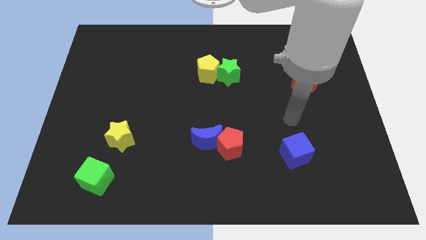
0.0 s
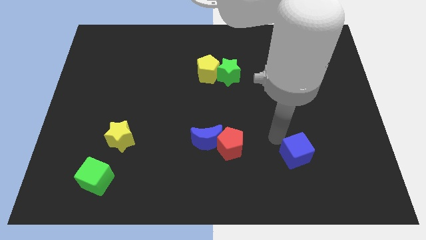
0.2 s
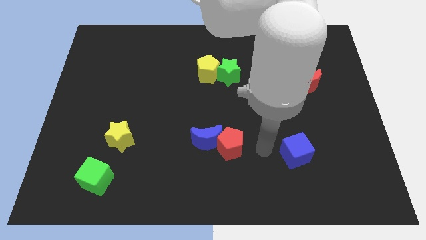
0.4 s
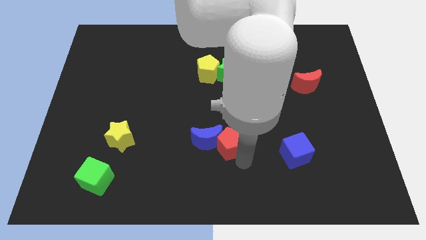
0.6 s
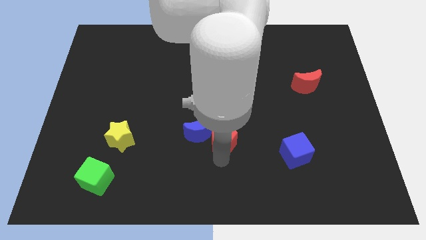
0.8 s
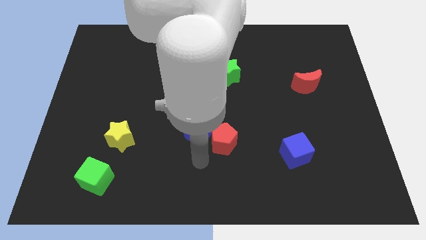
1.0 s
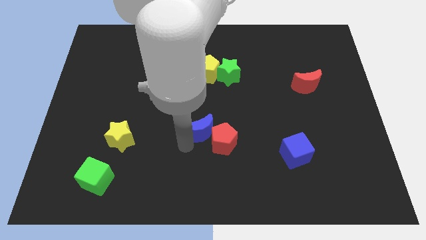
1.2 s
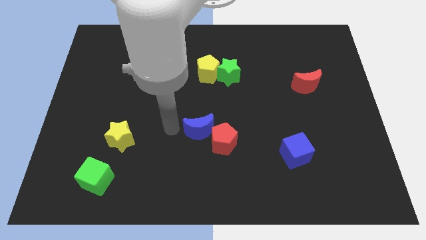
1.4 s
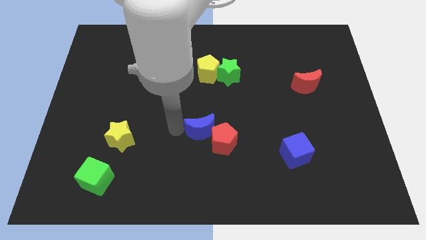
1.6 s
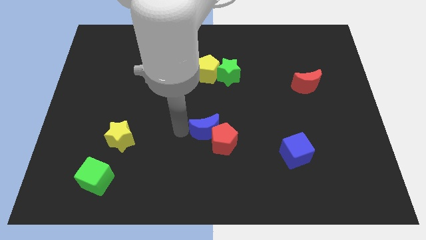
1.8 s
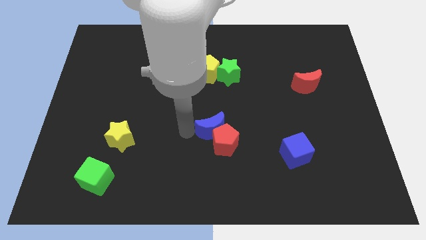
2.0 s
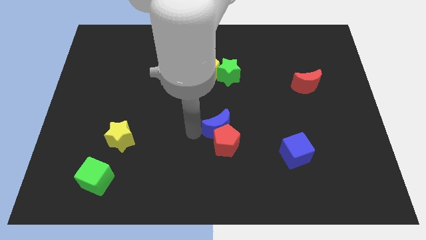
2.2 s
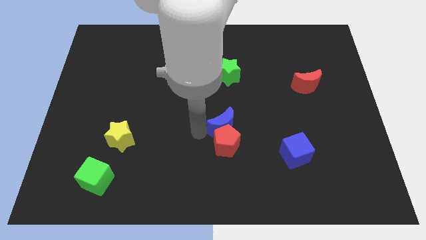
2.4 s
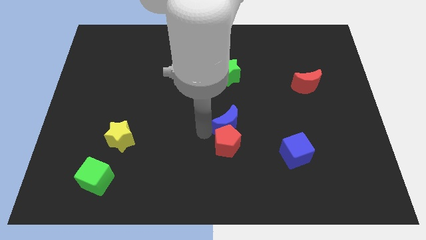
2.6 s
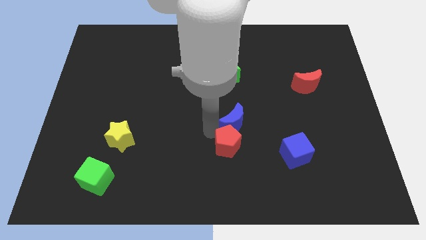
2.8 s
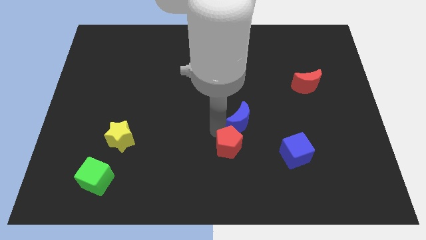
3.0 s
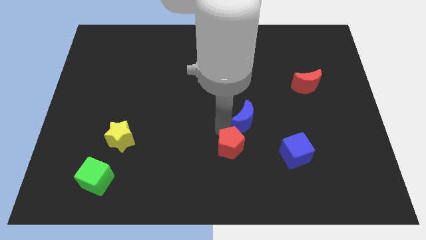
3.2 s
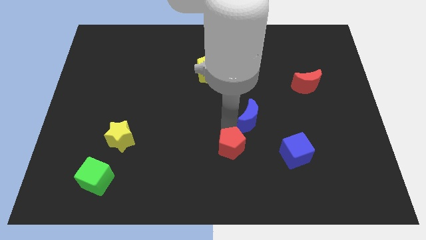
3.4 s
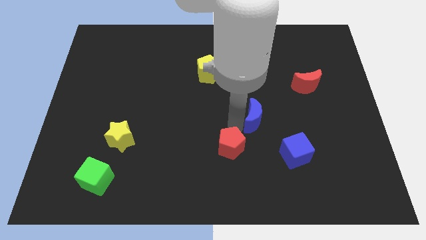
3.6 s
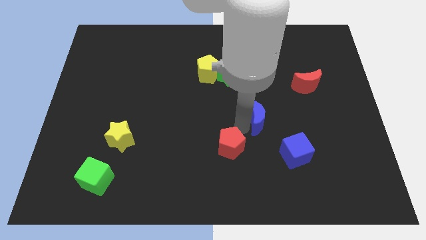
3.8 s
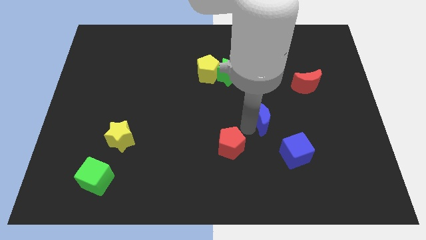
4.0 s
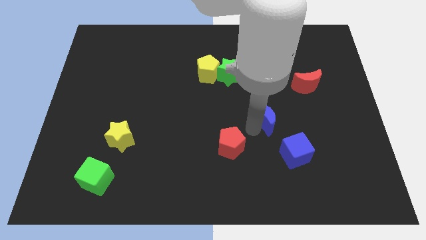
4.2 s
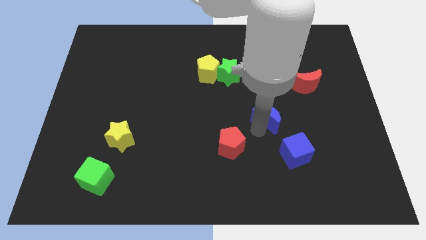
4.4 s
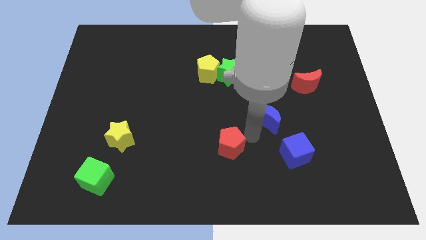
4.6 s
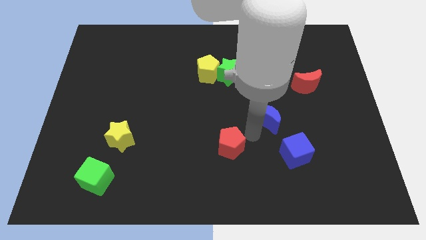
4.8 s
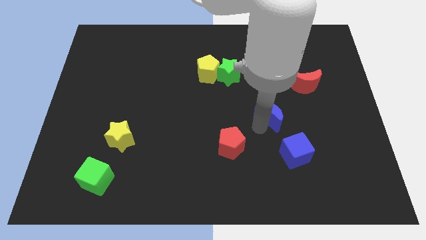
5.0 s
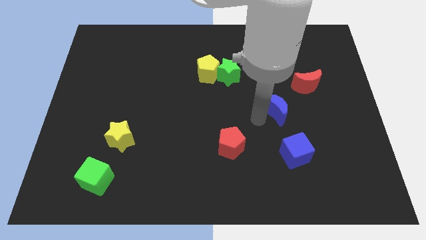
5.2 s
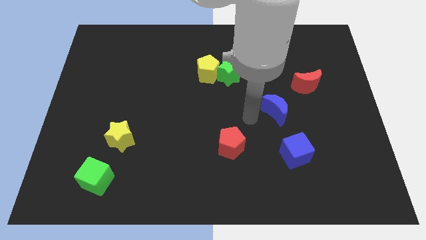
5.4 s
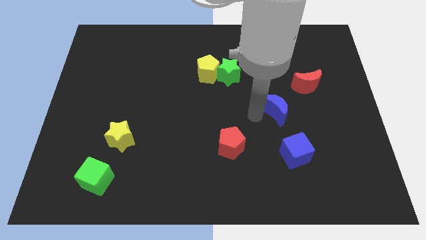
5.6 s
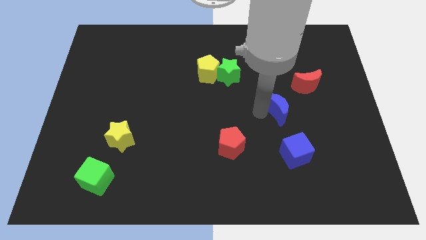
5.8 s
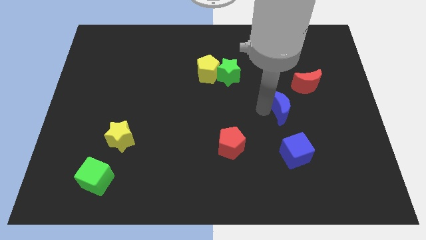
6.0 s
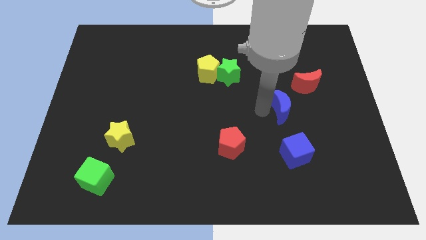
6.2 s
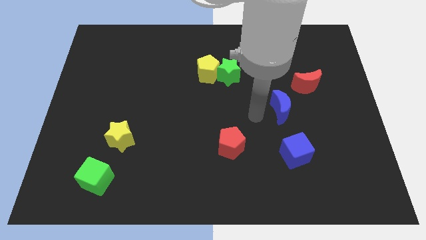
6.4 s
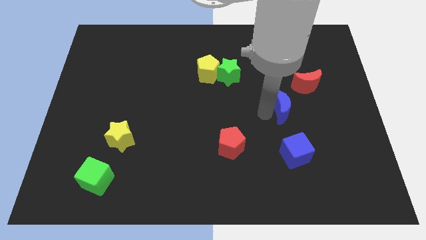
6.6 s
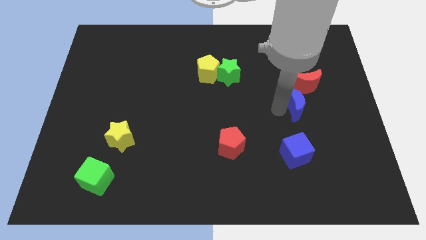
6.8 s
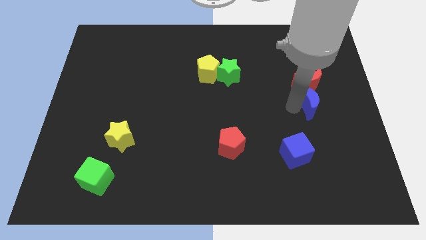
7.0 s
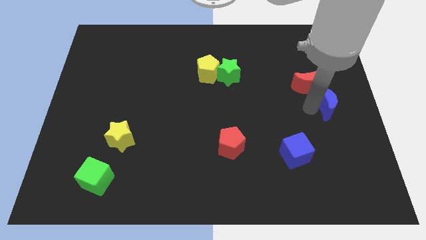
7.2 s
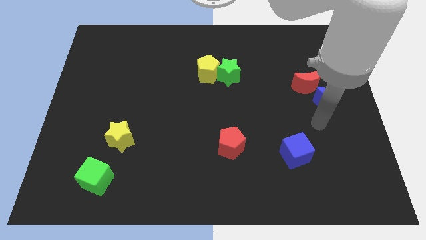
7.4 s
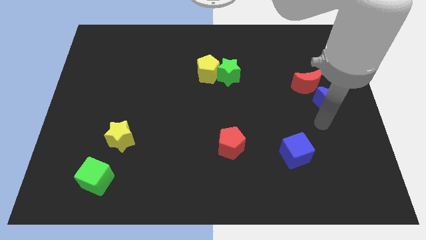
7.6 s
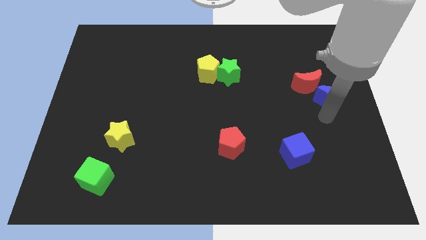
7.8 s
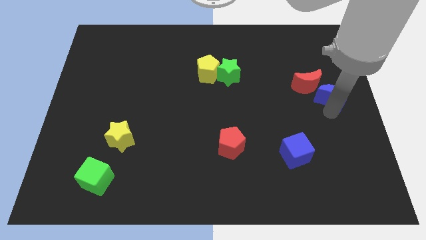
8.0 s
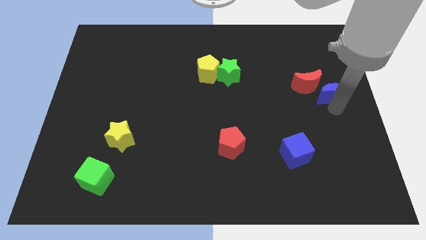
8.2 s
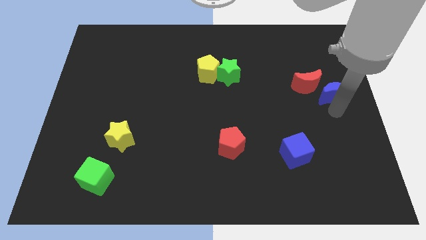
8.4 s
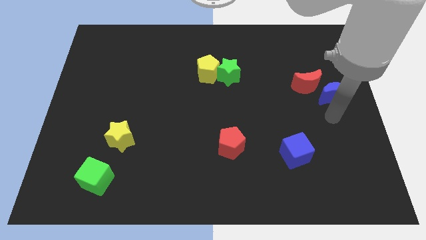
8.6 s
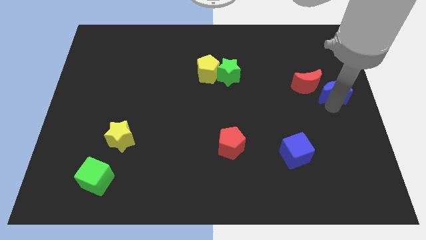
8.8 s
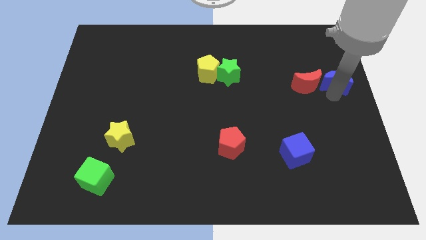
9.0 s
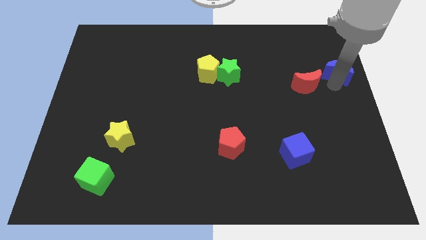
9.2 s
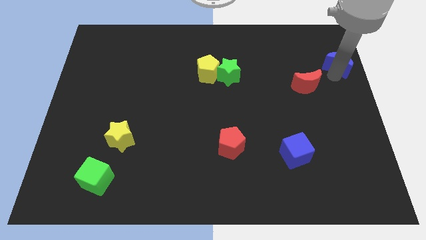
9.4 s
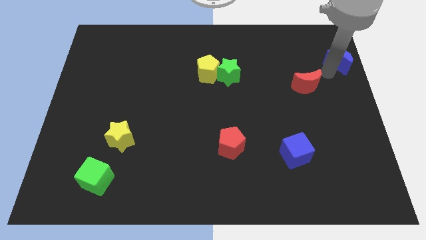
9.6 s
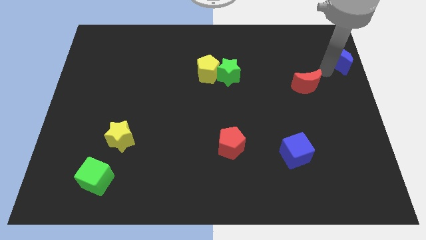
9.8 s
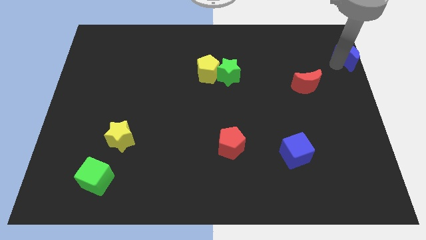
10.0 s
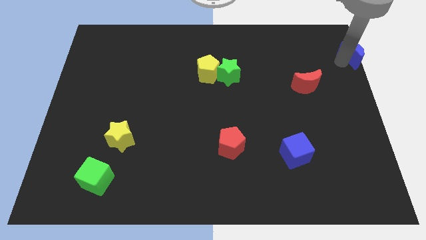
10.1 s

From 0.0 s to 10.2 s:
move the blue moon to the top right corner
